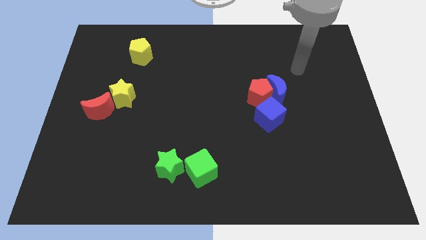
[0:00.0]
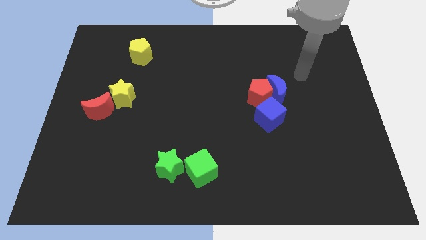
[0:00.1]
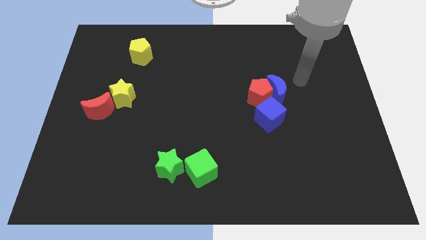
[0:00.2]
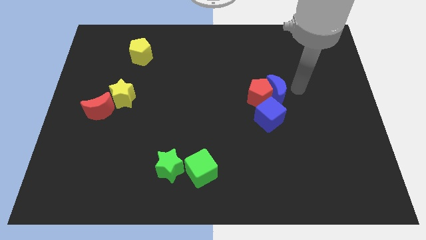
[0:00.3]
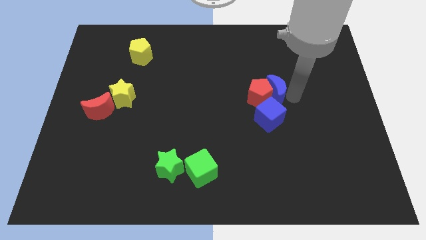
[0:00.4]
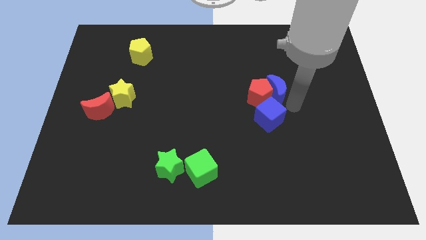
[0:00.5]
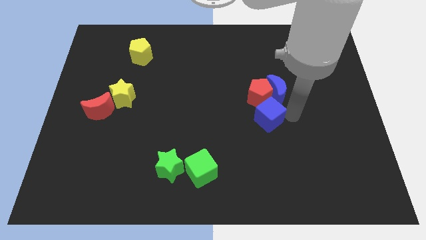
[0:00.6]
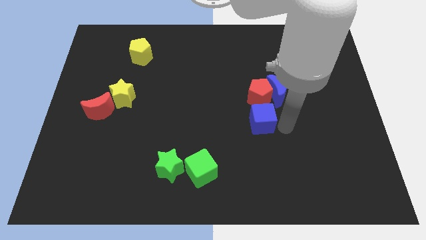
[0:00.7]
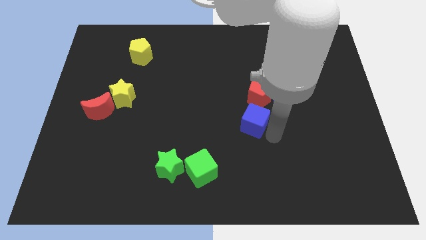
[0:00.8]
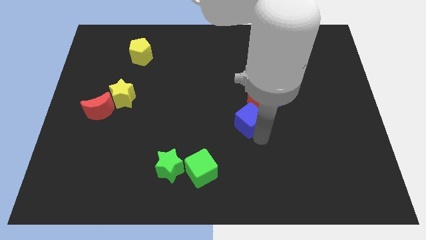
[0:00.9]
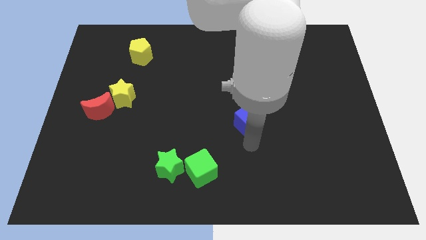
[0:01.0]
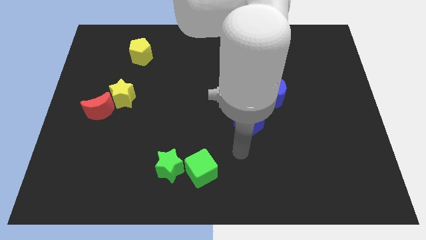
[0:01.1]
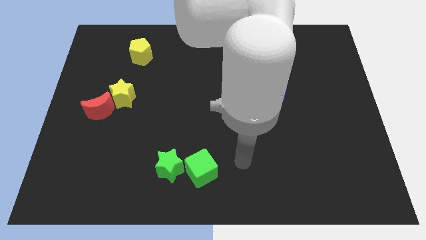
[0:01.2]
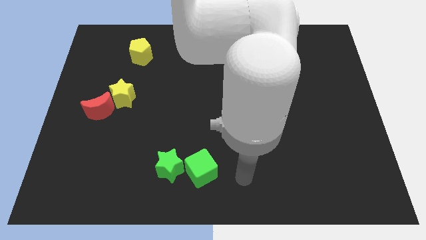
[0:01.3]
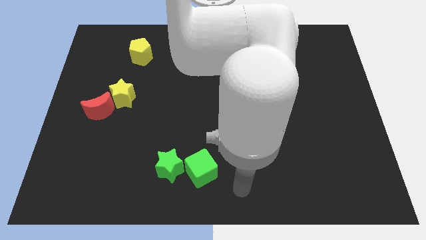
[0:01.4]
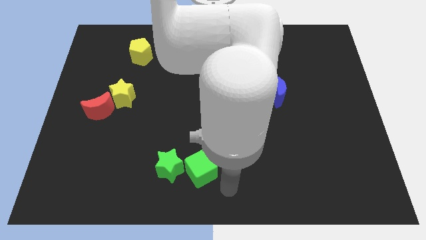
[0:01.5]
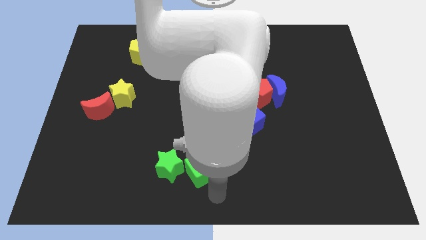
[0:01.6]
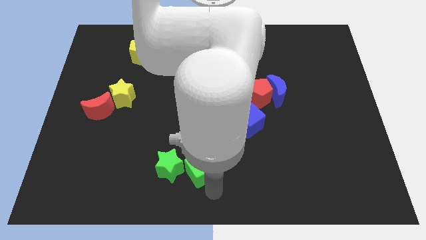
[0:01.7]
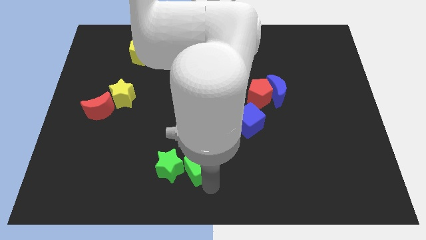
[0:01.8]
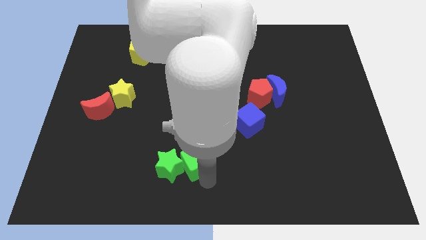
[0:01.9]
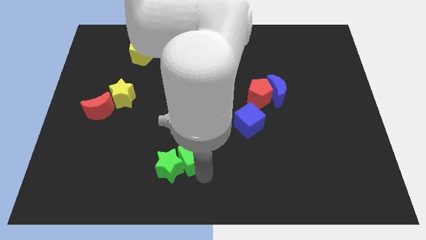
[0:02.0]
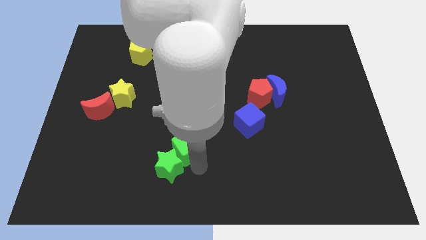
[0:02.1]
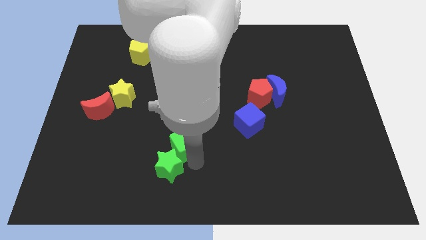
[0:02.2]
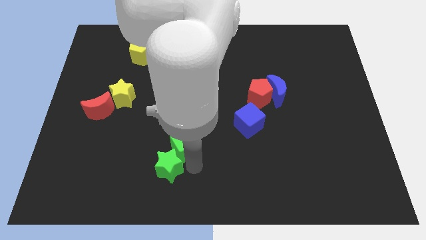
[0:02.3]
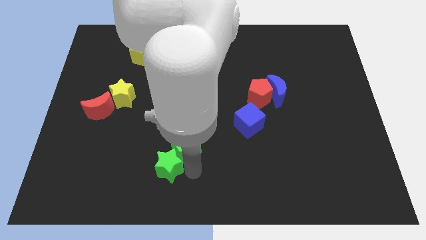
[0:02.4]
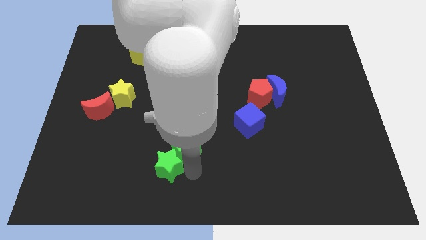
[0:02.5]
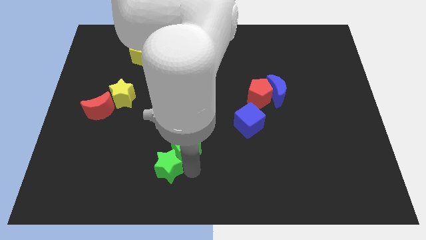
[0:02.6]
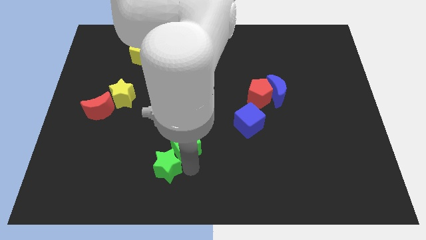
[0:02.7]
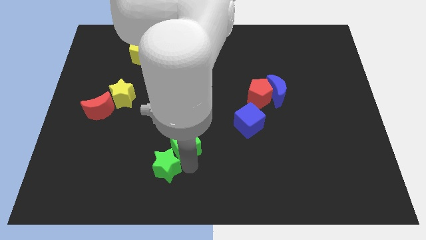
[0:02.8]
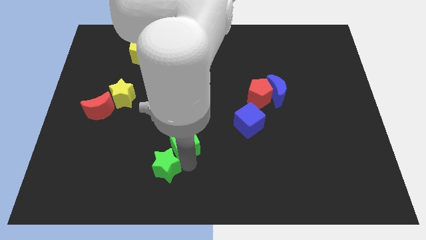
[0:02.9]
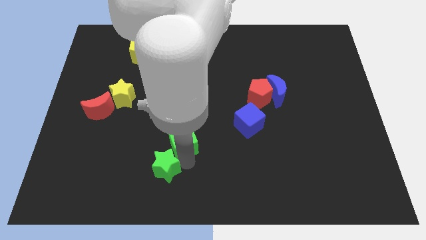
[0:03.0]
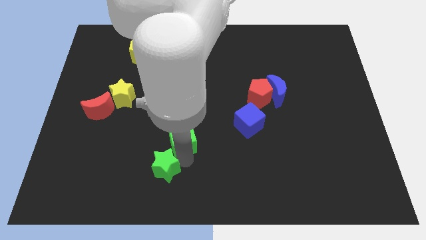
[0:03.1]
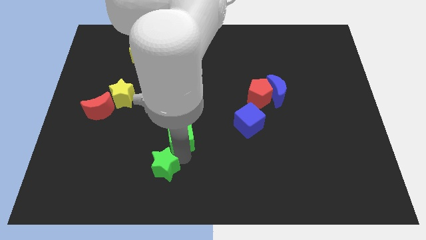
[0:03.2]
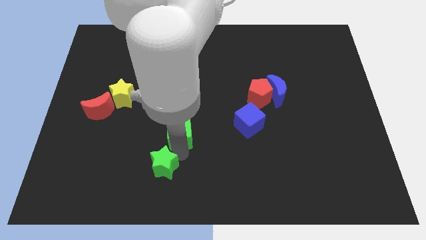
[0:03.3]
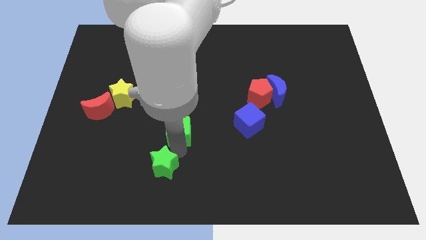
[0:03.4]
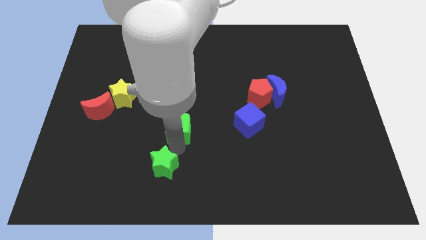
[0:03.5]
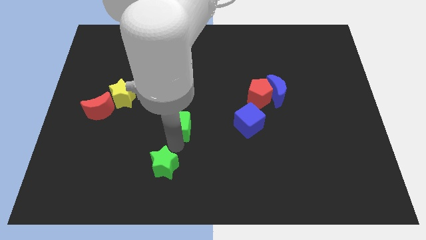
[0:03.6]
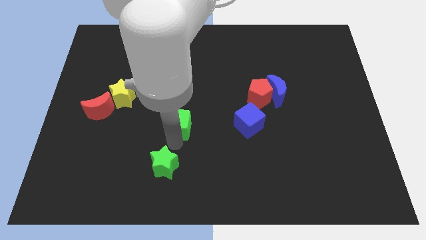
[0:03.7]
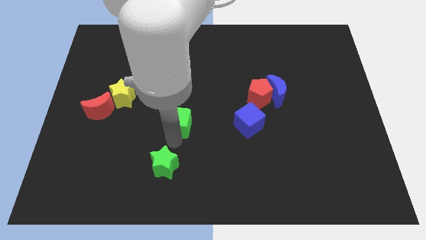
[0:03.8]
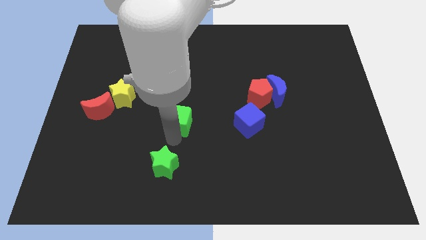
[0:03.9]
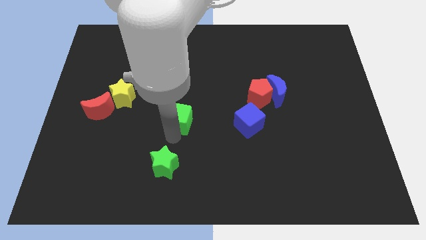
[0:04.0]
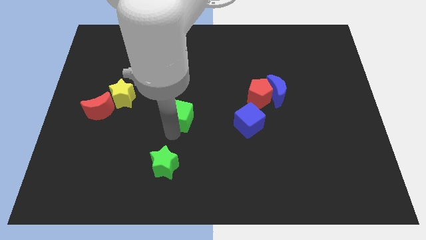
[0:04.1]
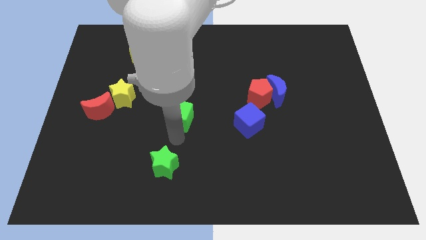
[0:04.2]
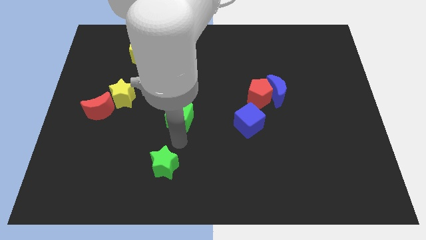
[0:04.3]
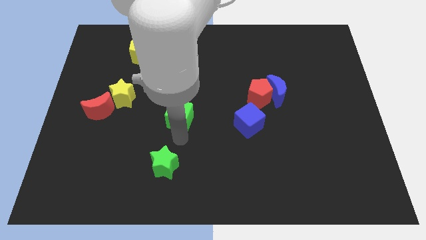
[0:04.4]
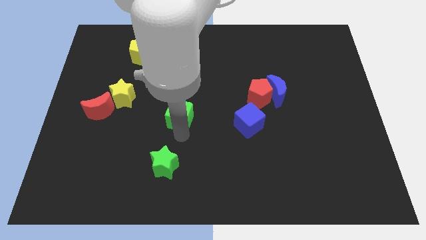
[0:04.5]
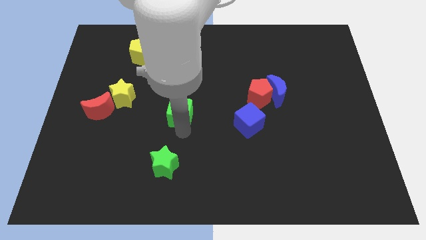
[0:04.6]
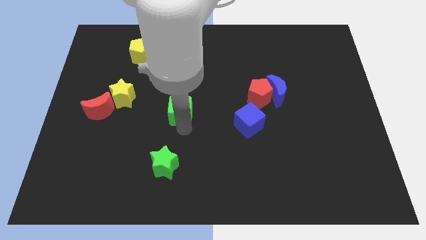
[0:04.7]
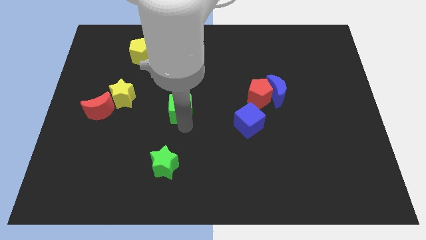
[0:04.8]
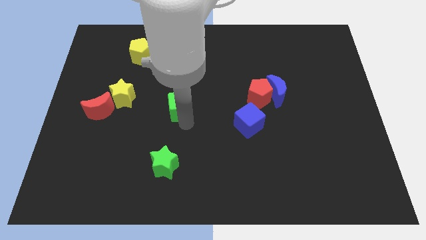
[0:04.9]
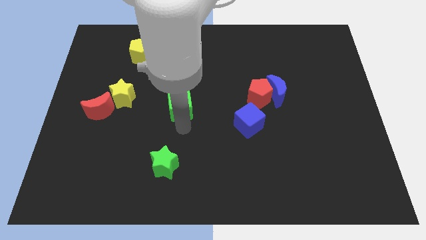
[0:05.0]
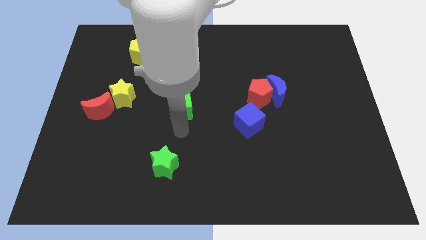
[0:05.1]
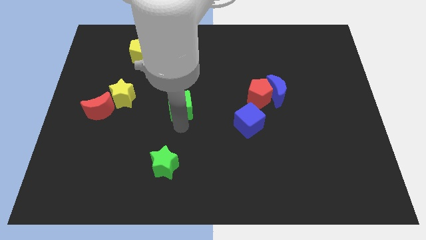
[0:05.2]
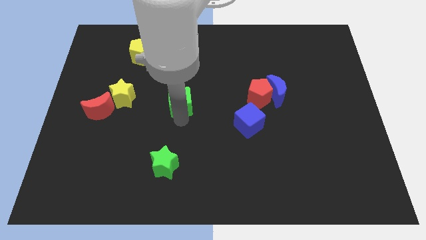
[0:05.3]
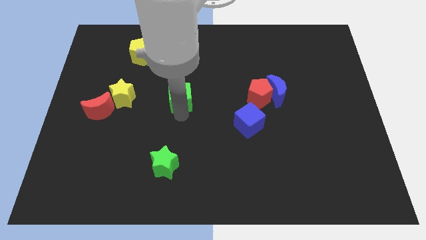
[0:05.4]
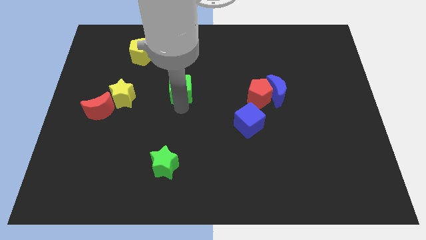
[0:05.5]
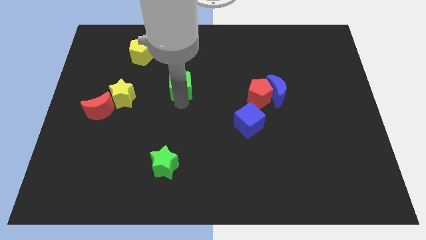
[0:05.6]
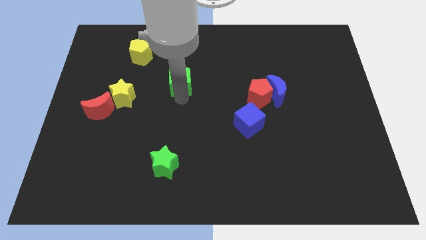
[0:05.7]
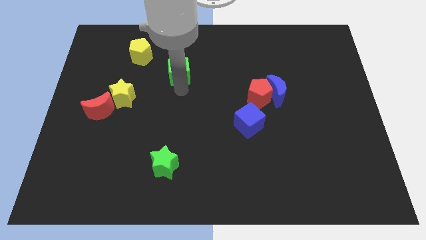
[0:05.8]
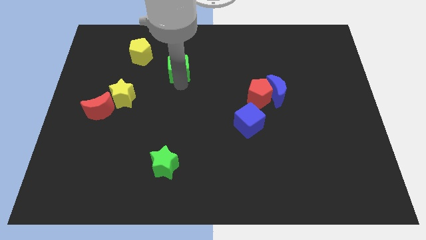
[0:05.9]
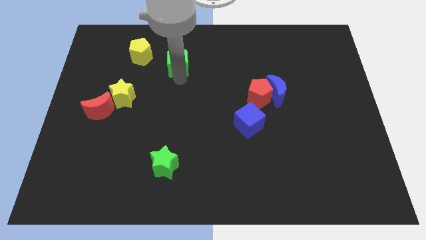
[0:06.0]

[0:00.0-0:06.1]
push the green cube right of the yellow pentagon
